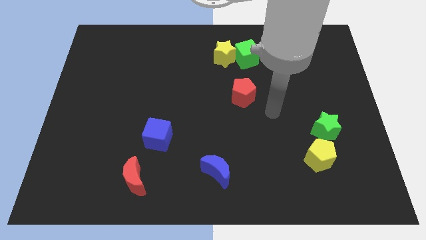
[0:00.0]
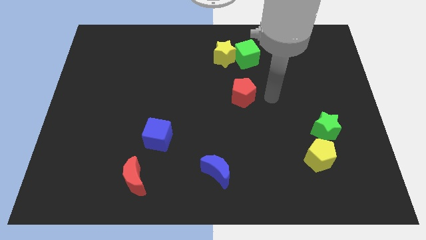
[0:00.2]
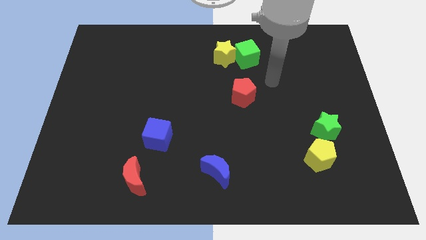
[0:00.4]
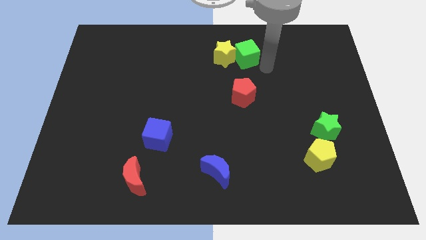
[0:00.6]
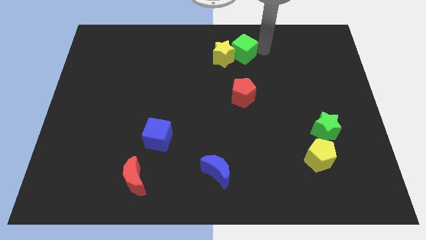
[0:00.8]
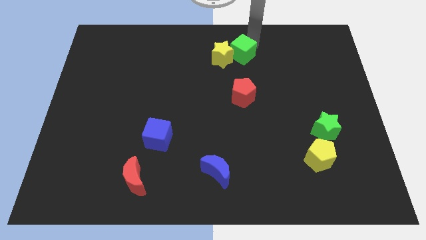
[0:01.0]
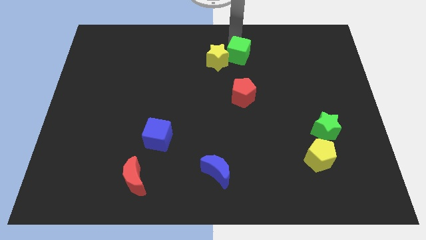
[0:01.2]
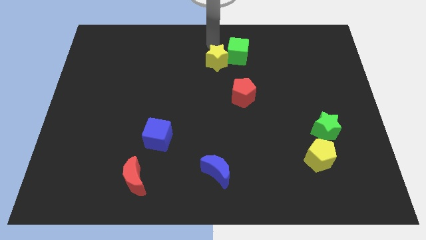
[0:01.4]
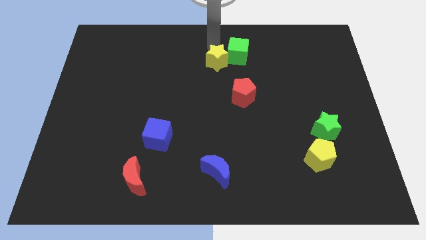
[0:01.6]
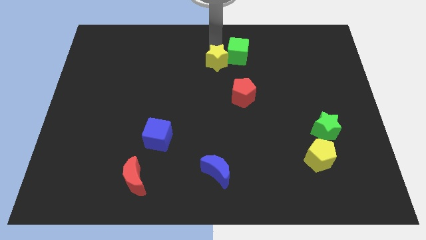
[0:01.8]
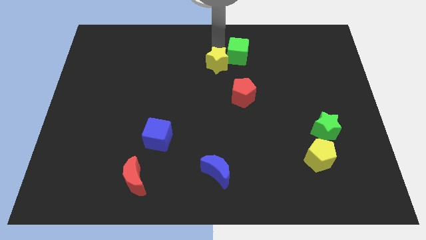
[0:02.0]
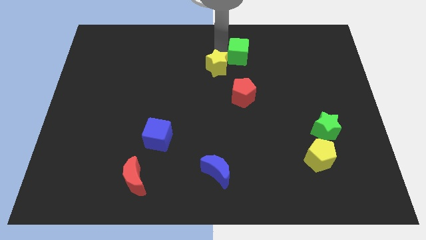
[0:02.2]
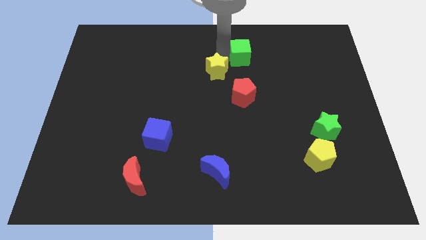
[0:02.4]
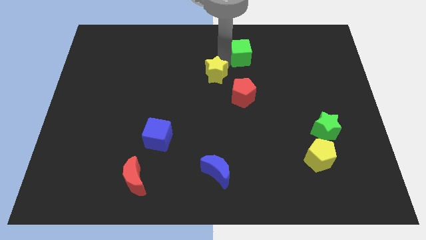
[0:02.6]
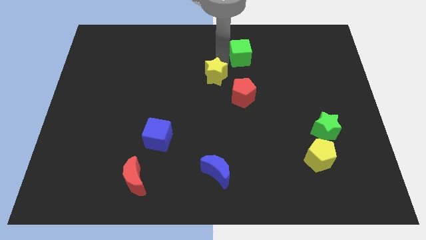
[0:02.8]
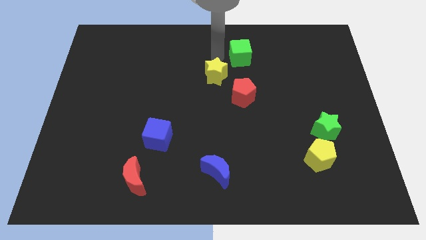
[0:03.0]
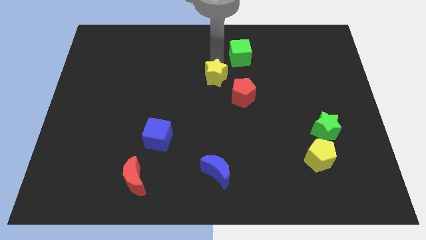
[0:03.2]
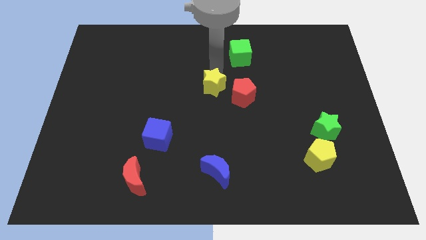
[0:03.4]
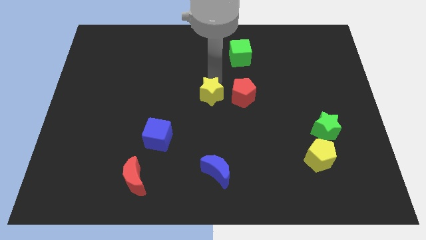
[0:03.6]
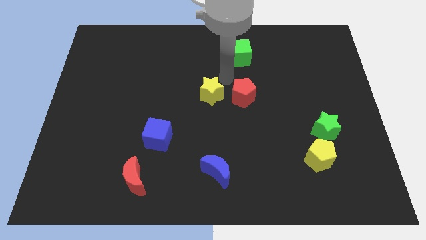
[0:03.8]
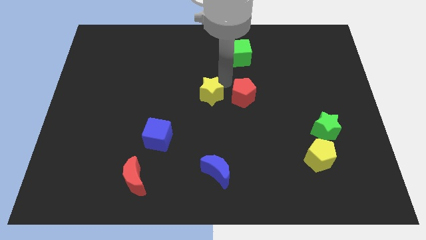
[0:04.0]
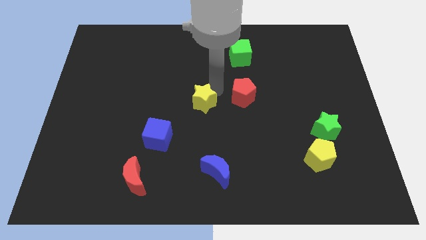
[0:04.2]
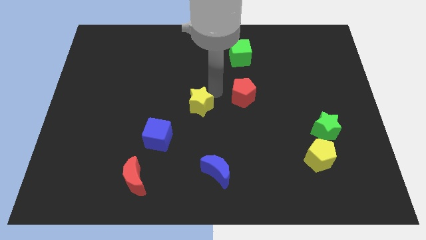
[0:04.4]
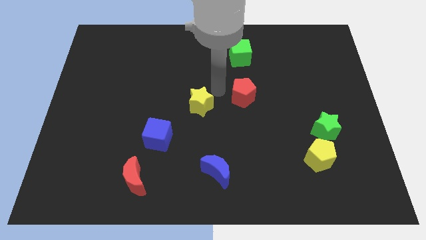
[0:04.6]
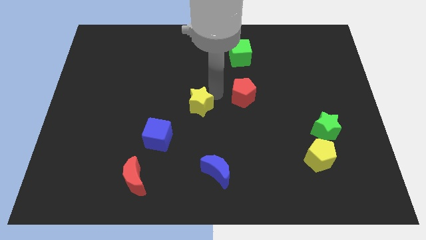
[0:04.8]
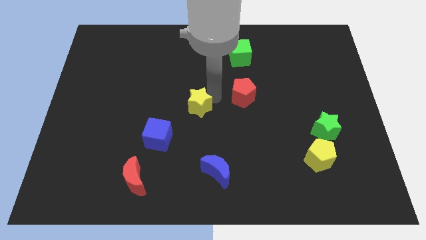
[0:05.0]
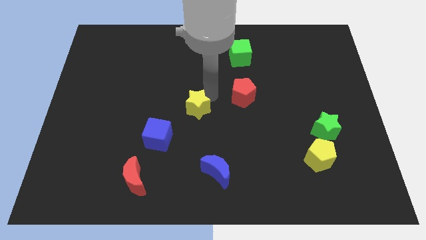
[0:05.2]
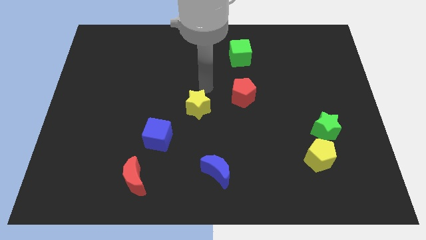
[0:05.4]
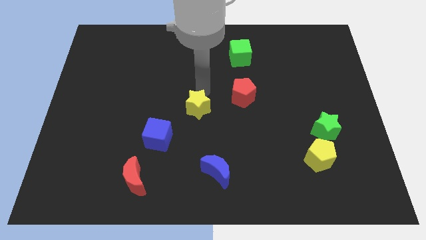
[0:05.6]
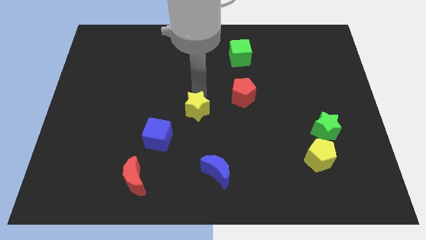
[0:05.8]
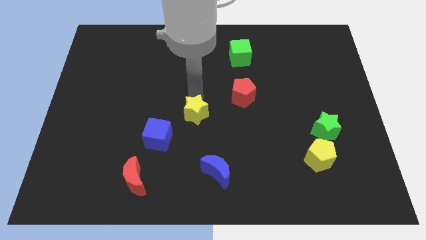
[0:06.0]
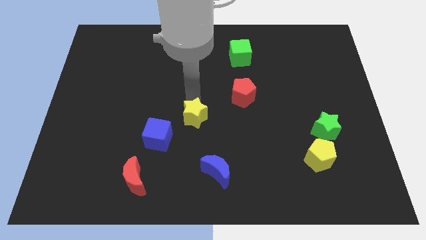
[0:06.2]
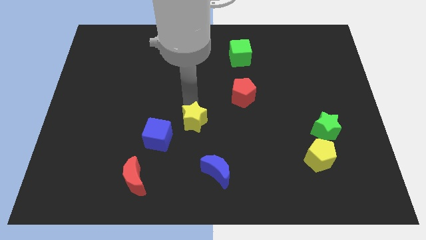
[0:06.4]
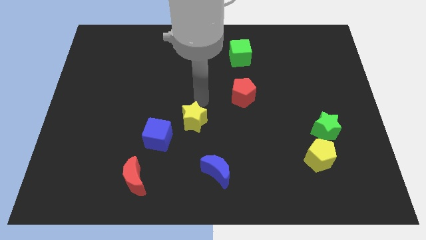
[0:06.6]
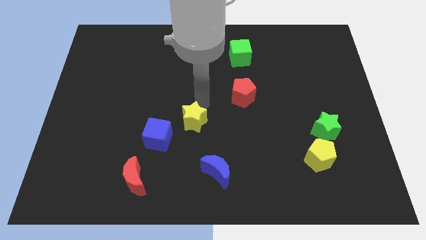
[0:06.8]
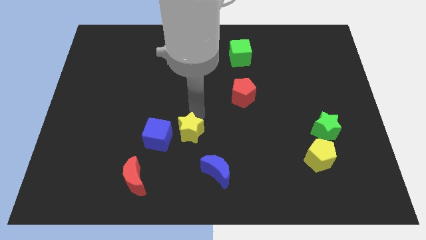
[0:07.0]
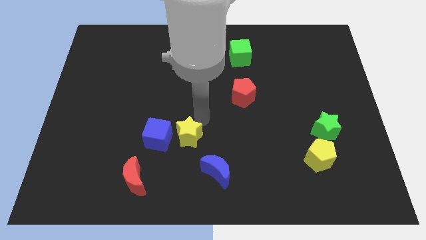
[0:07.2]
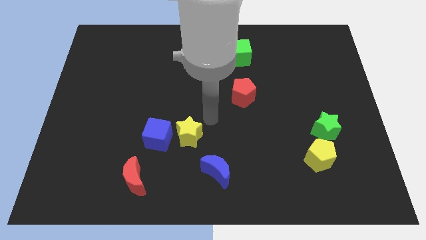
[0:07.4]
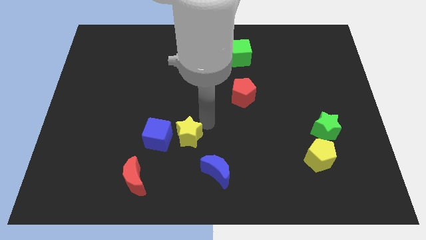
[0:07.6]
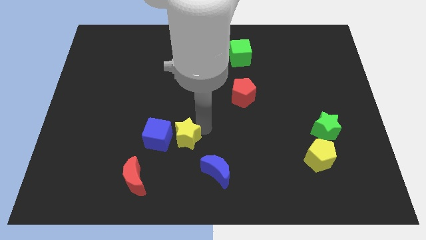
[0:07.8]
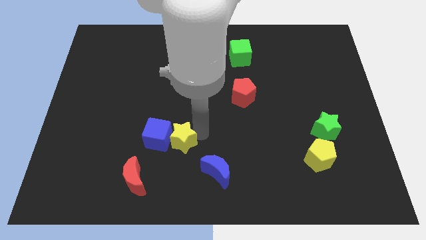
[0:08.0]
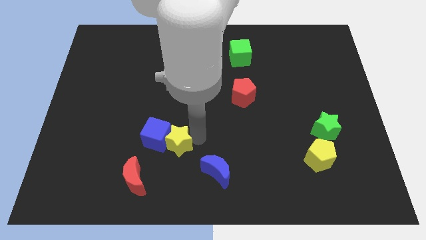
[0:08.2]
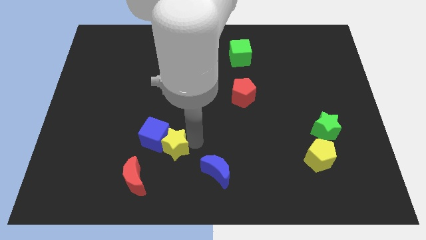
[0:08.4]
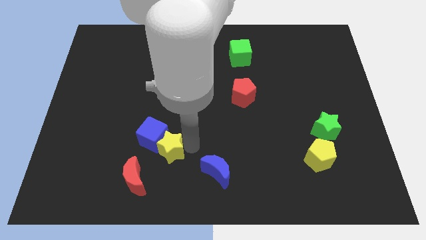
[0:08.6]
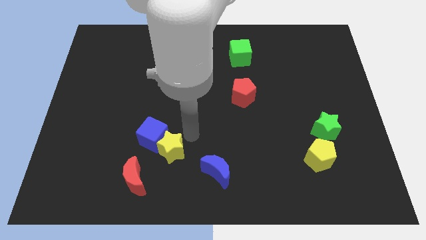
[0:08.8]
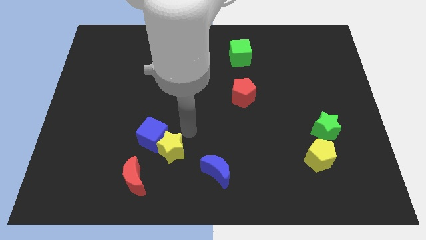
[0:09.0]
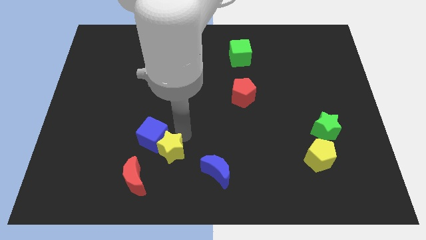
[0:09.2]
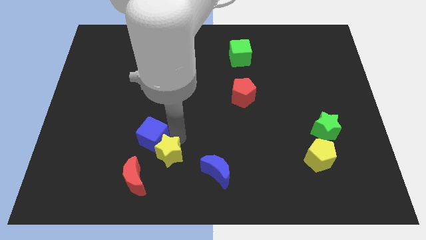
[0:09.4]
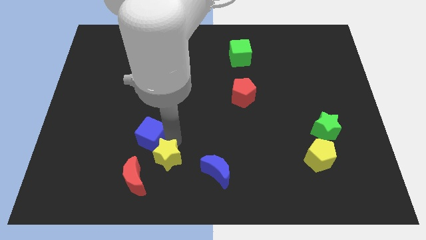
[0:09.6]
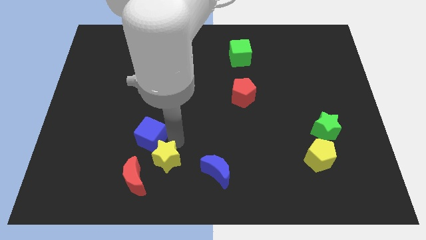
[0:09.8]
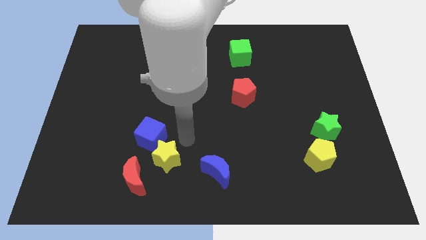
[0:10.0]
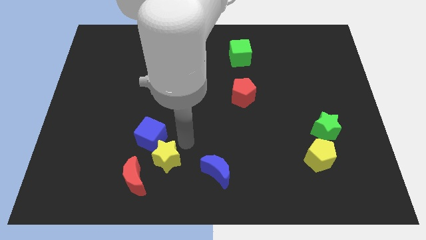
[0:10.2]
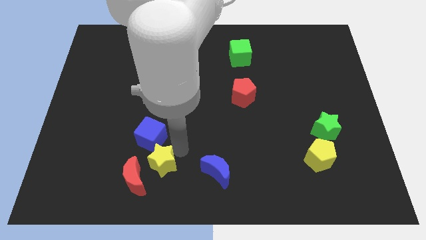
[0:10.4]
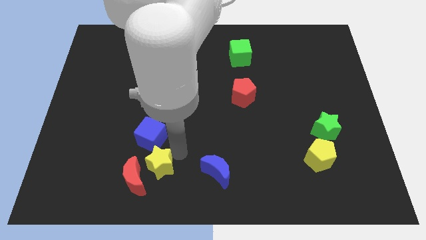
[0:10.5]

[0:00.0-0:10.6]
slide the yellow star close to the red moon

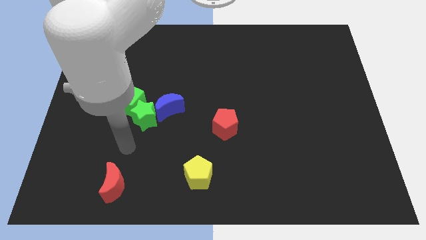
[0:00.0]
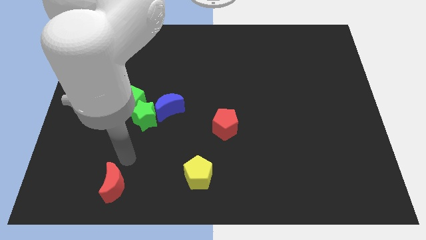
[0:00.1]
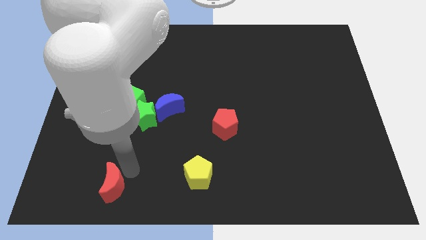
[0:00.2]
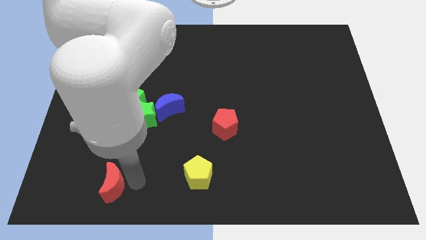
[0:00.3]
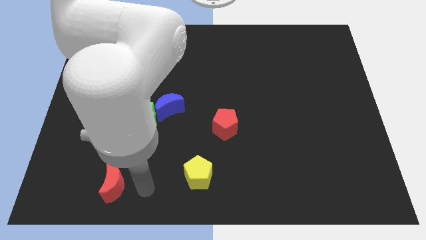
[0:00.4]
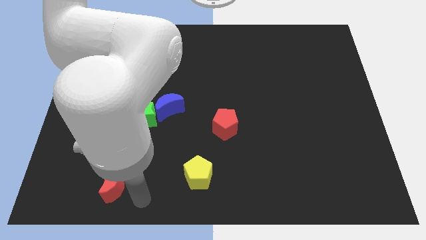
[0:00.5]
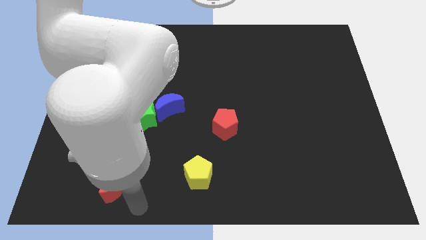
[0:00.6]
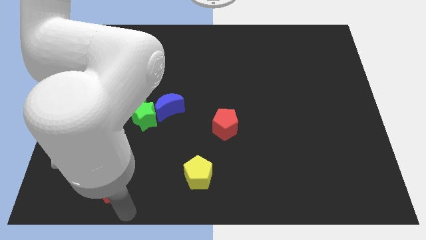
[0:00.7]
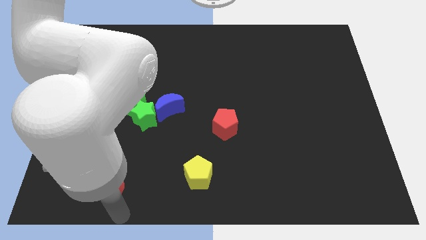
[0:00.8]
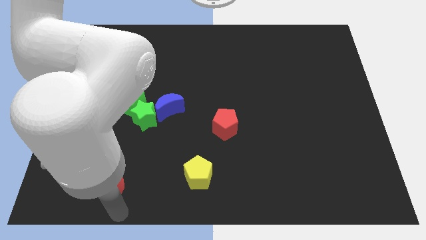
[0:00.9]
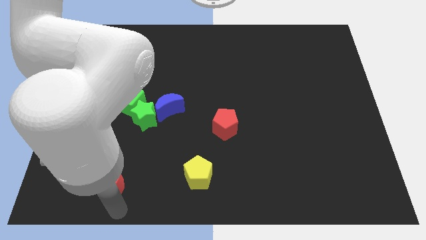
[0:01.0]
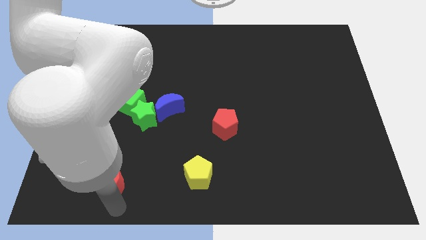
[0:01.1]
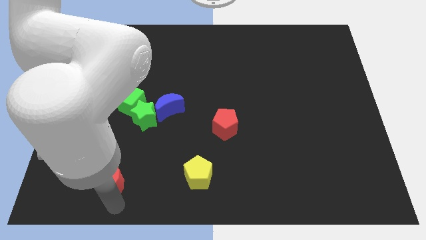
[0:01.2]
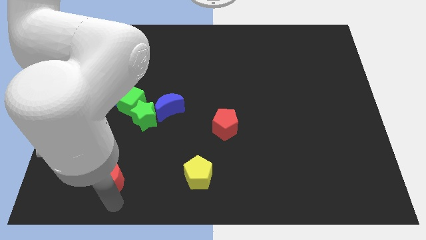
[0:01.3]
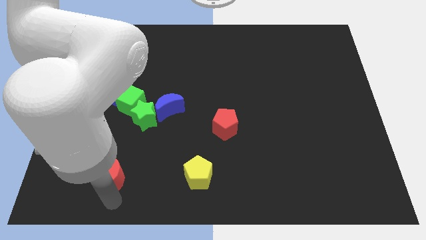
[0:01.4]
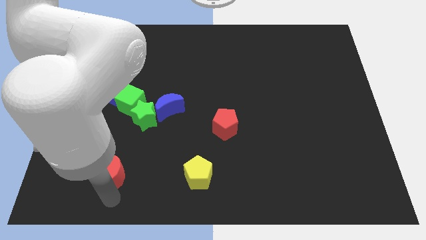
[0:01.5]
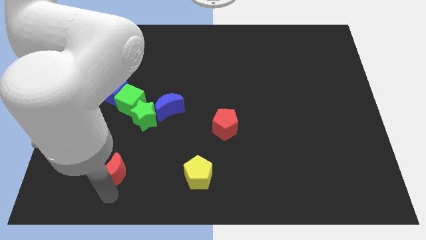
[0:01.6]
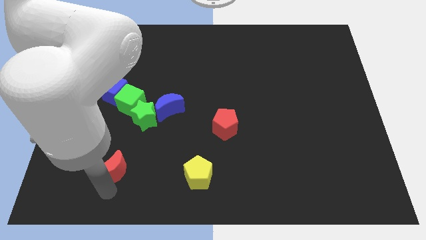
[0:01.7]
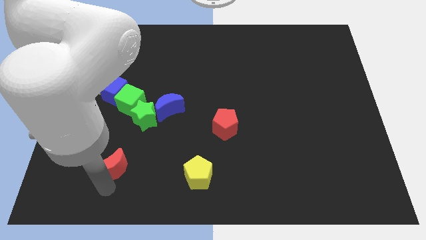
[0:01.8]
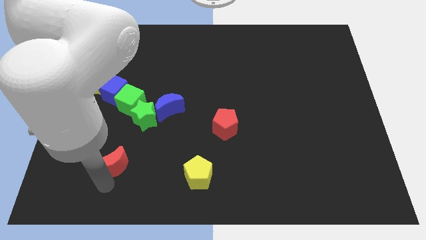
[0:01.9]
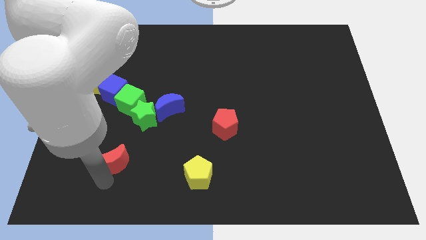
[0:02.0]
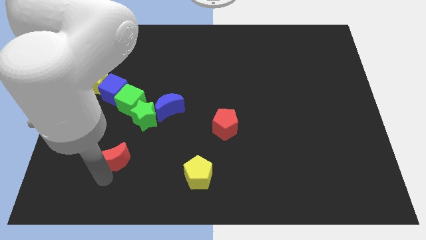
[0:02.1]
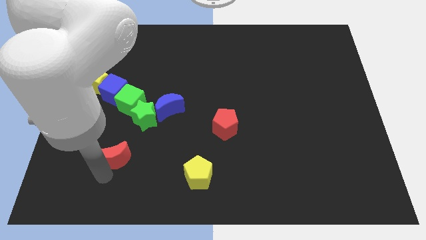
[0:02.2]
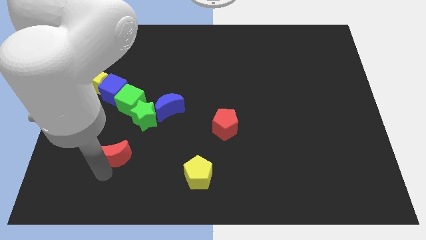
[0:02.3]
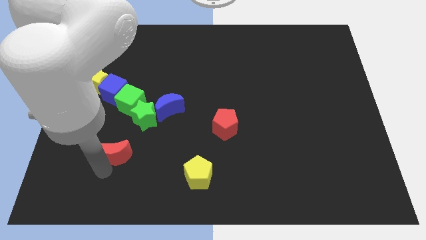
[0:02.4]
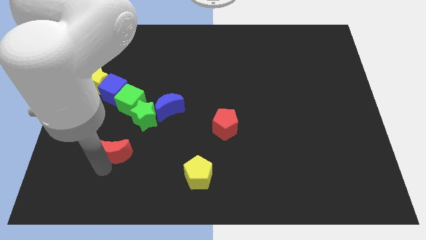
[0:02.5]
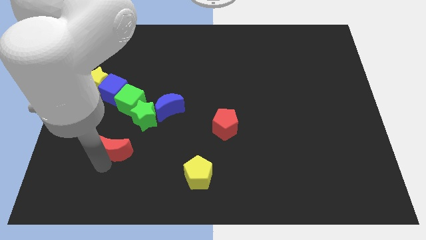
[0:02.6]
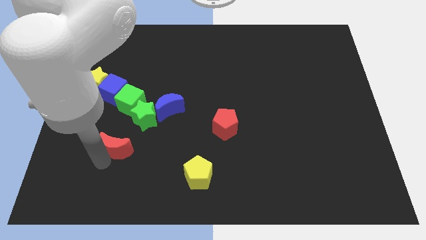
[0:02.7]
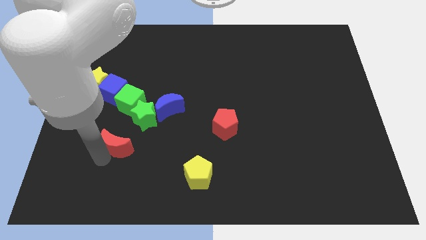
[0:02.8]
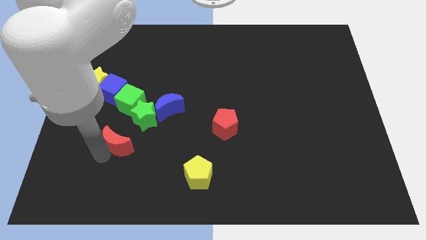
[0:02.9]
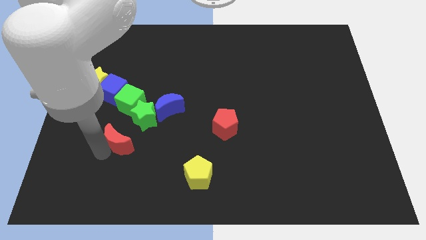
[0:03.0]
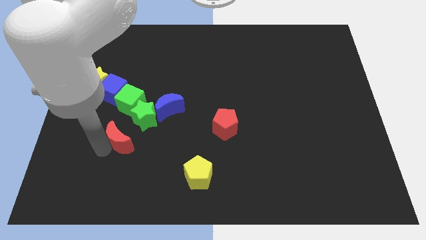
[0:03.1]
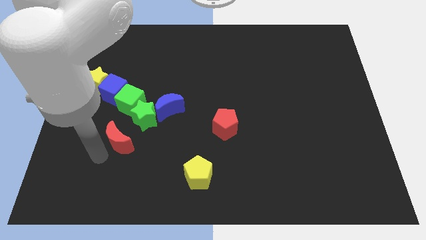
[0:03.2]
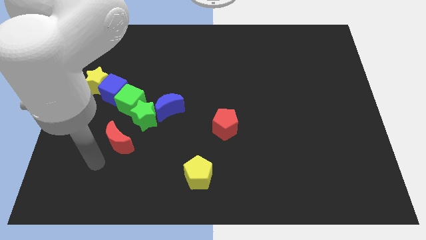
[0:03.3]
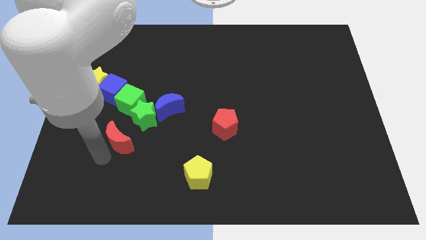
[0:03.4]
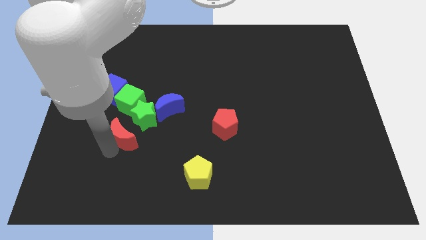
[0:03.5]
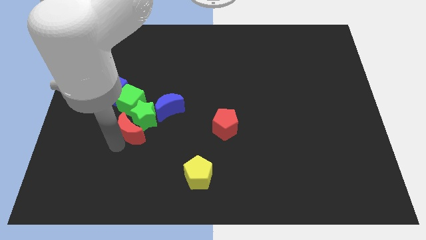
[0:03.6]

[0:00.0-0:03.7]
put the red moon next to the green star
